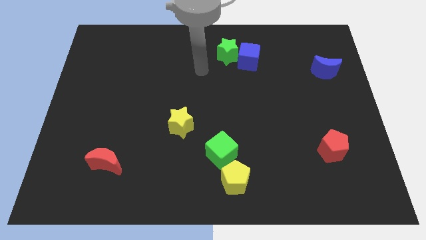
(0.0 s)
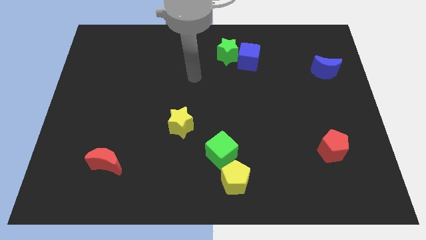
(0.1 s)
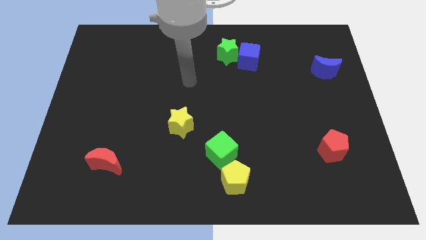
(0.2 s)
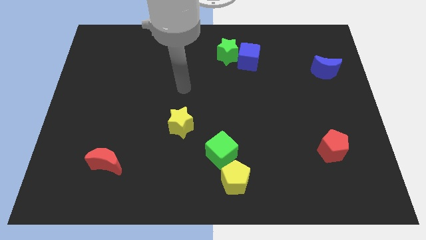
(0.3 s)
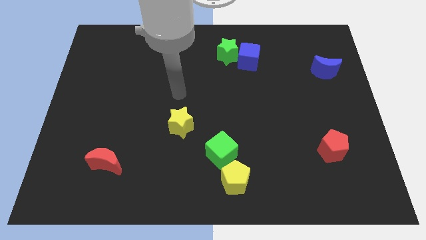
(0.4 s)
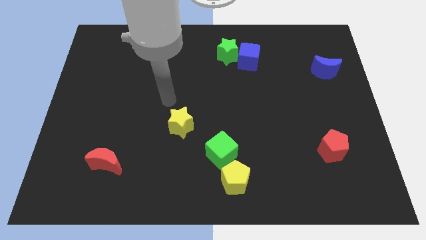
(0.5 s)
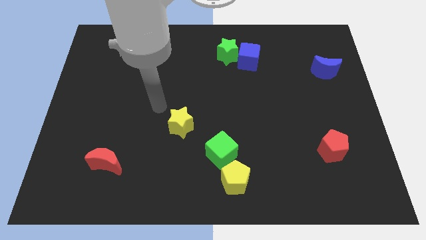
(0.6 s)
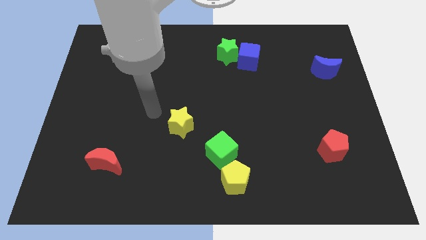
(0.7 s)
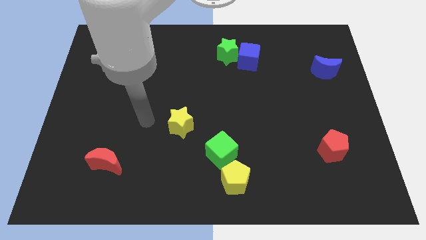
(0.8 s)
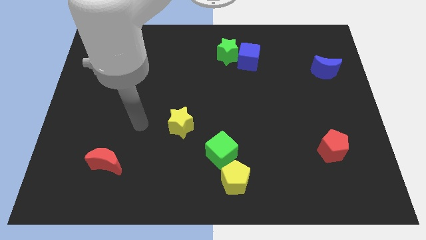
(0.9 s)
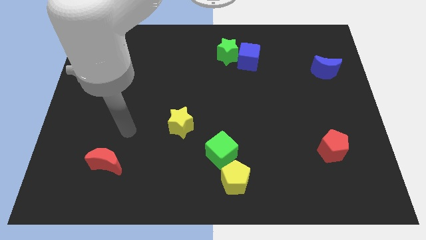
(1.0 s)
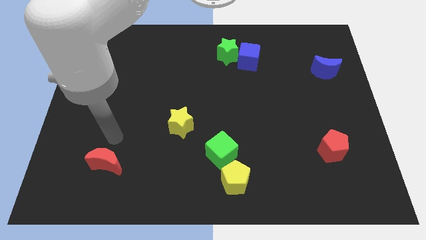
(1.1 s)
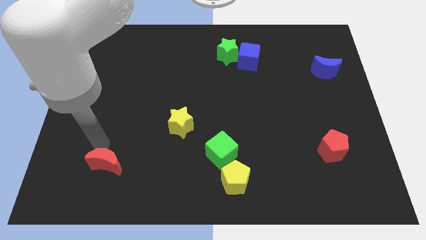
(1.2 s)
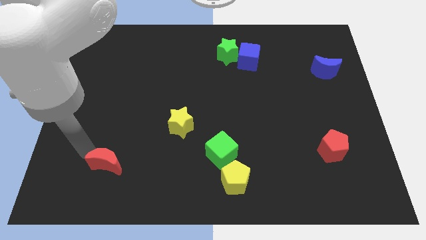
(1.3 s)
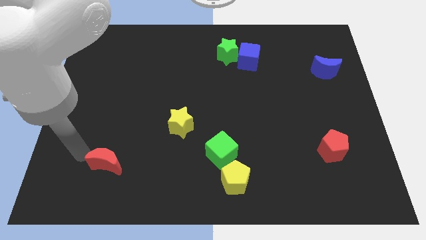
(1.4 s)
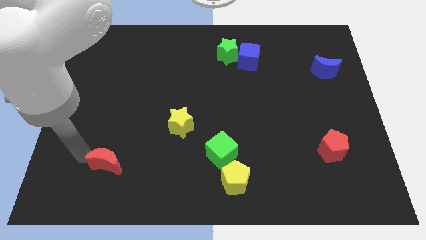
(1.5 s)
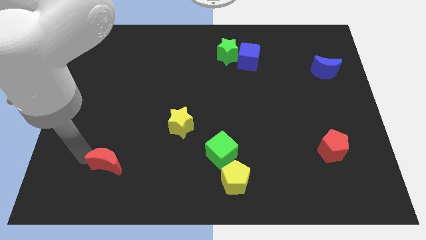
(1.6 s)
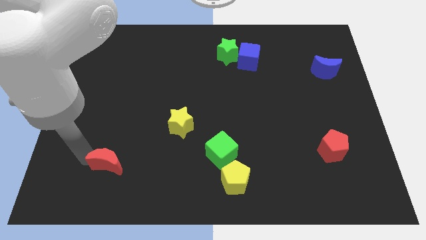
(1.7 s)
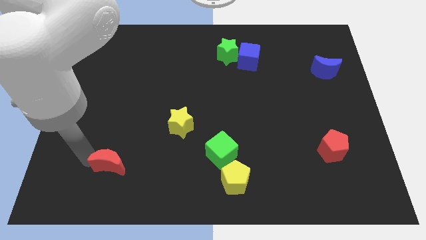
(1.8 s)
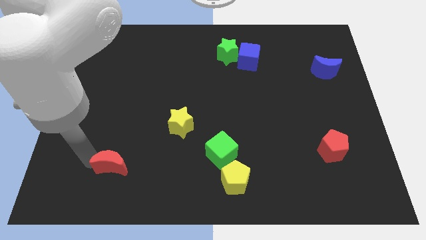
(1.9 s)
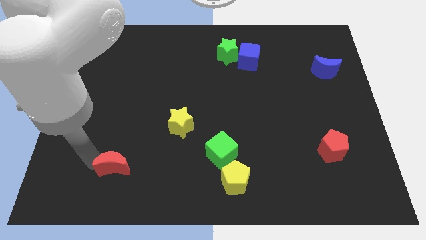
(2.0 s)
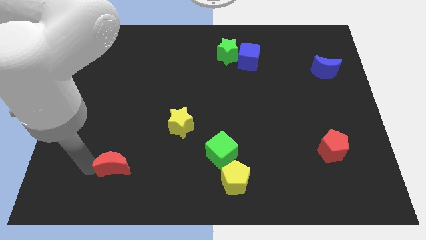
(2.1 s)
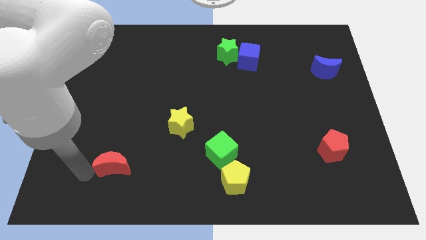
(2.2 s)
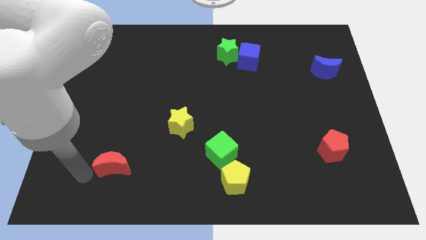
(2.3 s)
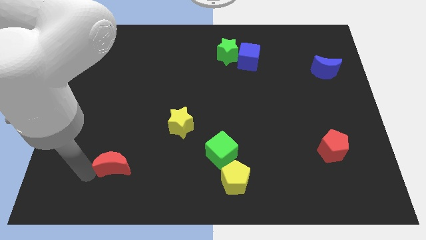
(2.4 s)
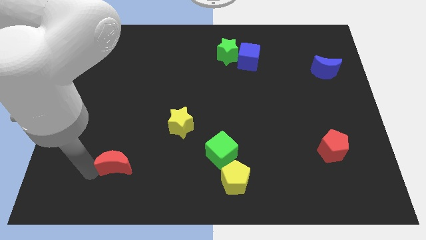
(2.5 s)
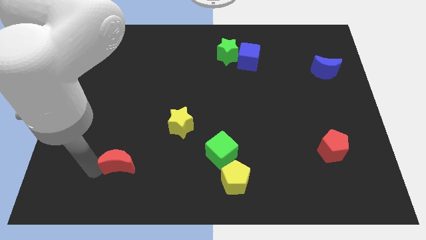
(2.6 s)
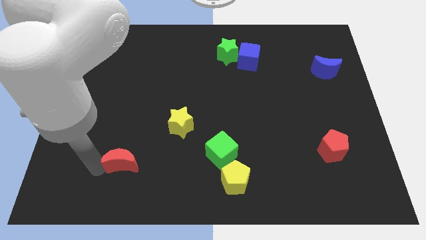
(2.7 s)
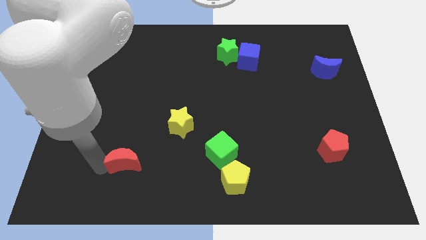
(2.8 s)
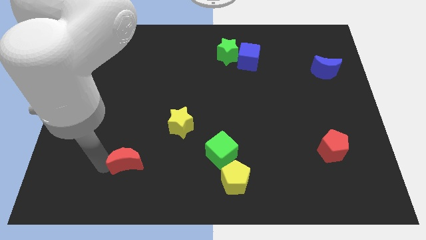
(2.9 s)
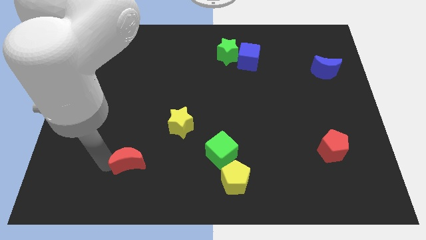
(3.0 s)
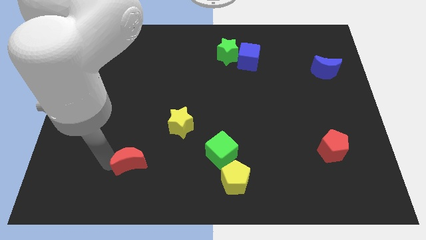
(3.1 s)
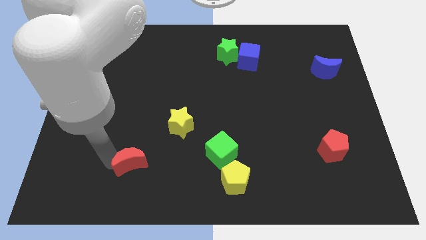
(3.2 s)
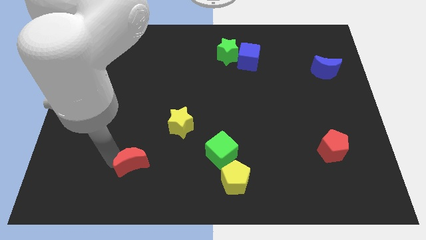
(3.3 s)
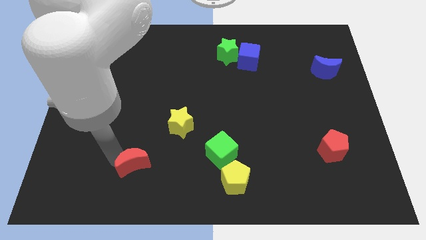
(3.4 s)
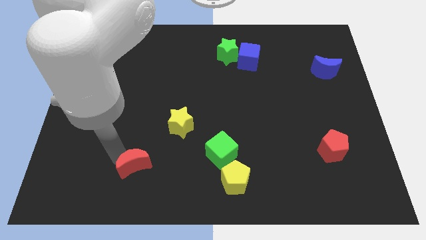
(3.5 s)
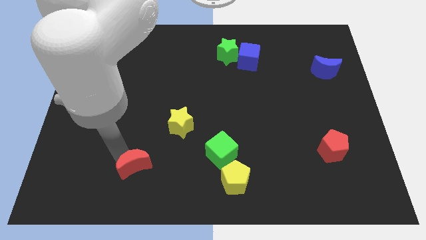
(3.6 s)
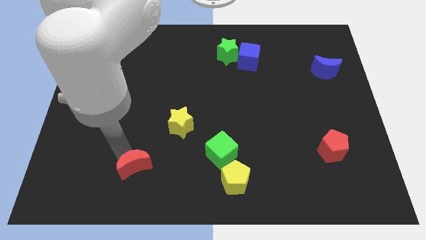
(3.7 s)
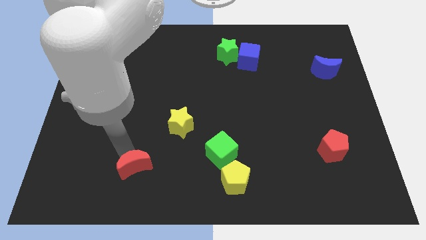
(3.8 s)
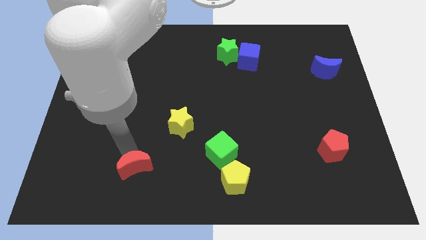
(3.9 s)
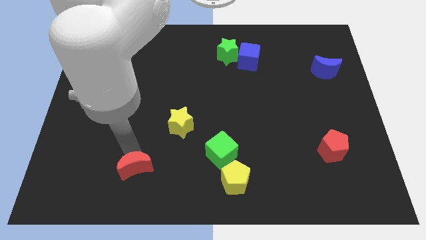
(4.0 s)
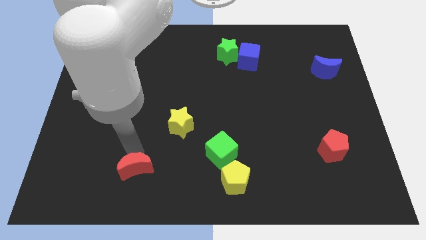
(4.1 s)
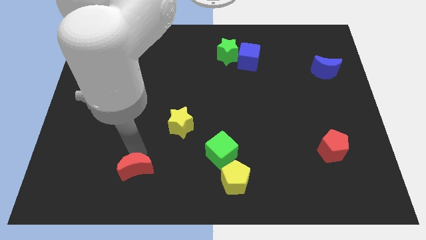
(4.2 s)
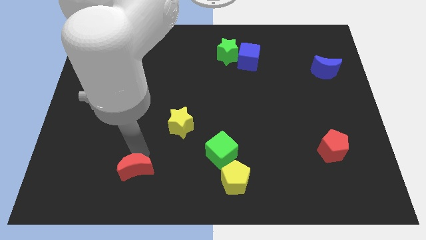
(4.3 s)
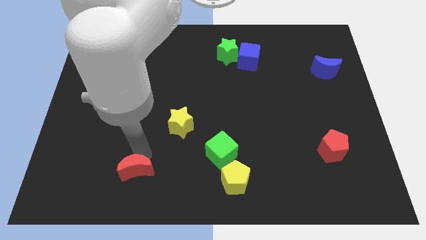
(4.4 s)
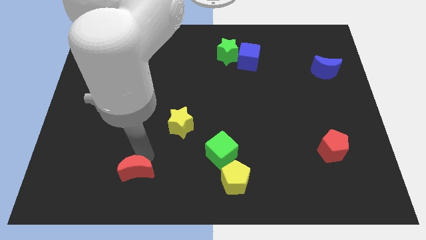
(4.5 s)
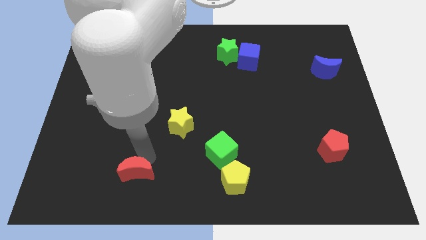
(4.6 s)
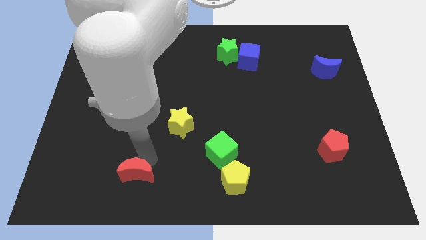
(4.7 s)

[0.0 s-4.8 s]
slide the red moon a little bit right

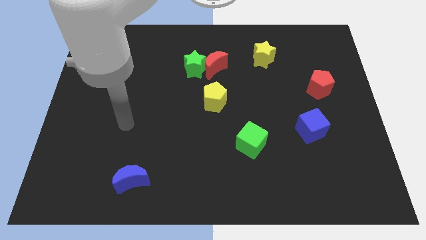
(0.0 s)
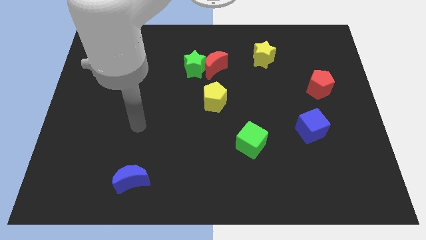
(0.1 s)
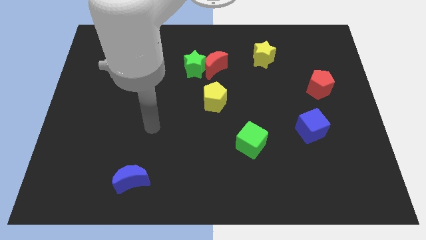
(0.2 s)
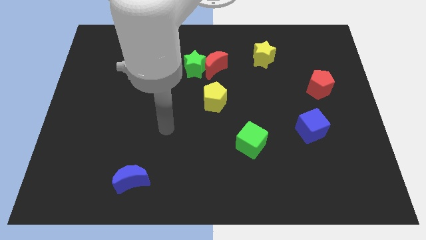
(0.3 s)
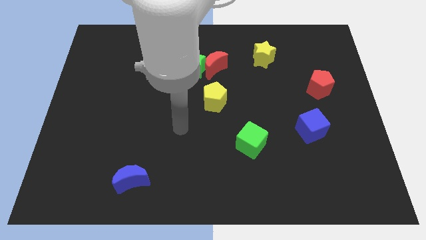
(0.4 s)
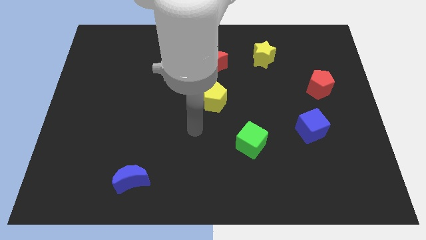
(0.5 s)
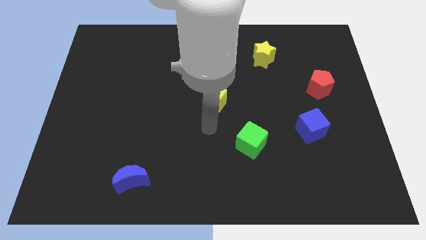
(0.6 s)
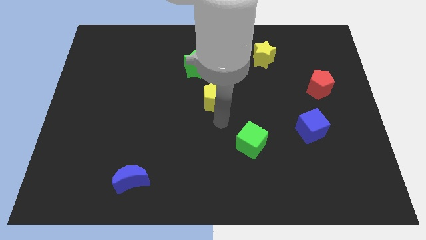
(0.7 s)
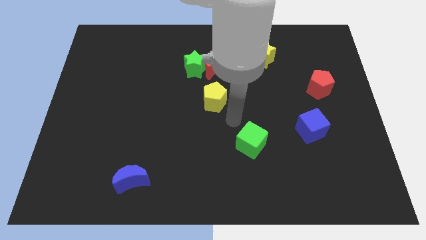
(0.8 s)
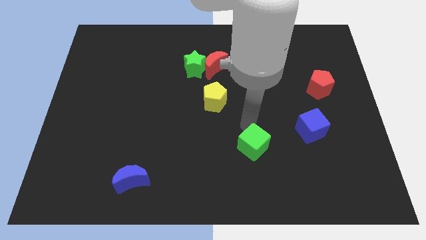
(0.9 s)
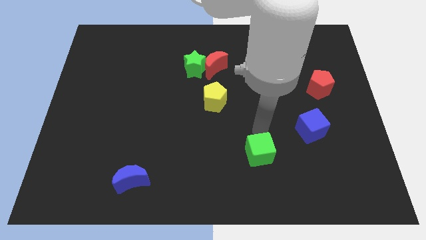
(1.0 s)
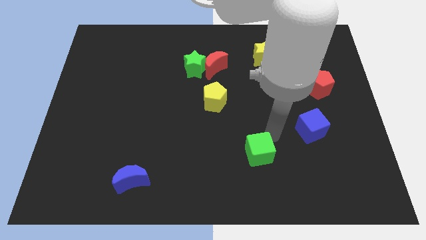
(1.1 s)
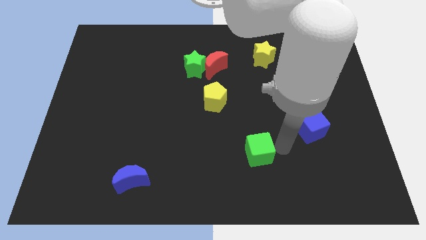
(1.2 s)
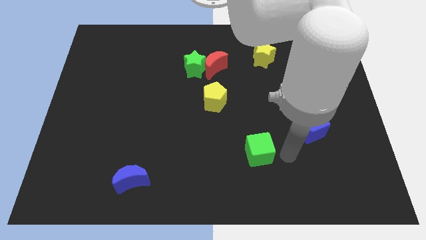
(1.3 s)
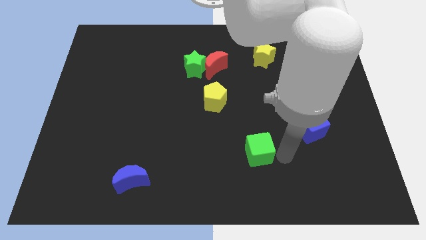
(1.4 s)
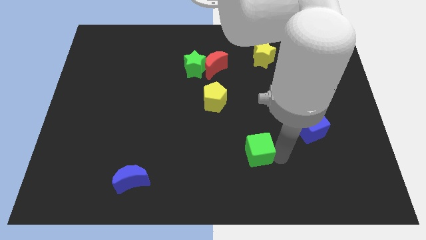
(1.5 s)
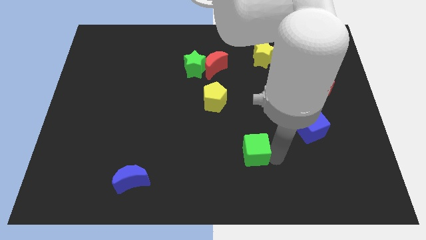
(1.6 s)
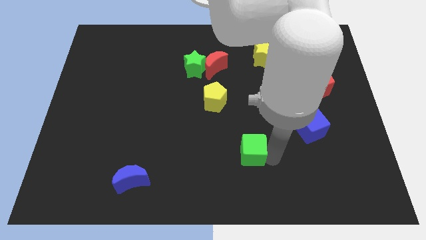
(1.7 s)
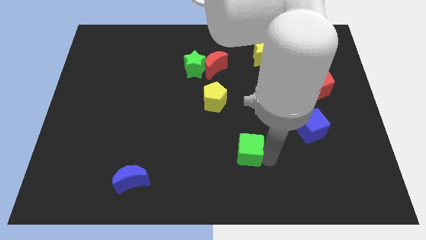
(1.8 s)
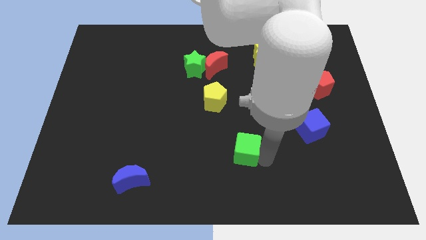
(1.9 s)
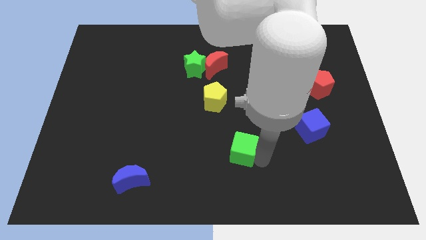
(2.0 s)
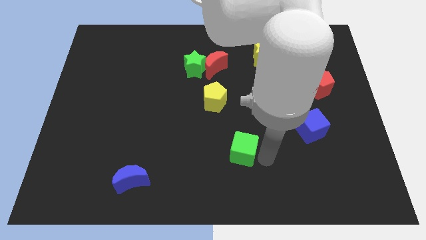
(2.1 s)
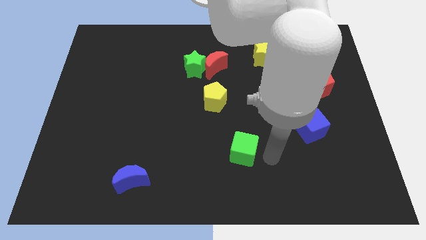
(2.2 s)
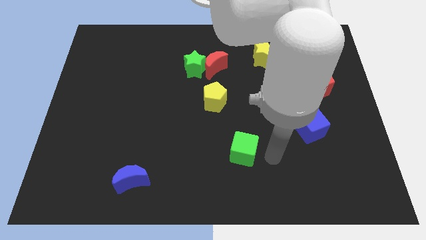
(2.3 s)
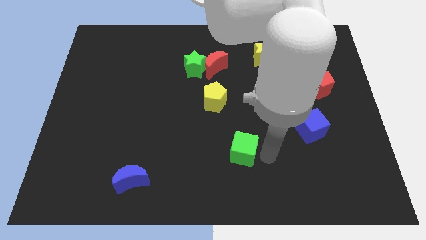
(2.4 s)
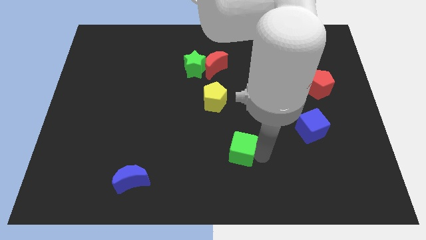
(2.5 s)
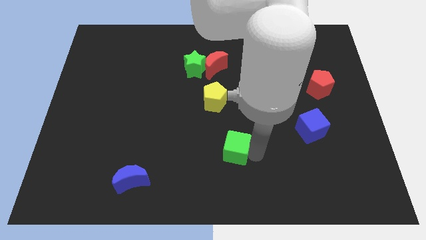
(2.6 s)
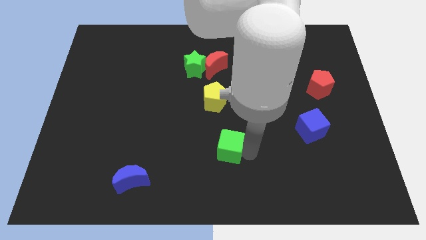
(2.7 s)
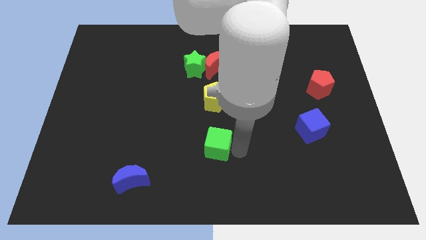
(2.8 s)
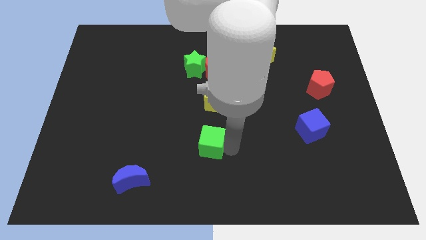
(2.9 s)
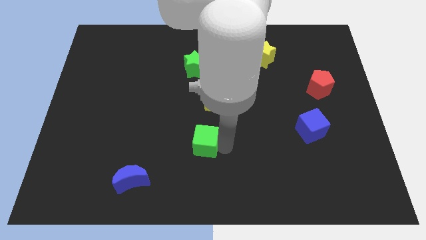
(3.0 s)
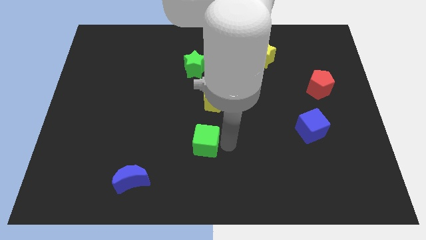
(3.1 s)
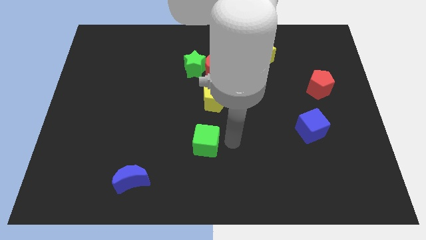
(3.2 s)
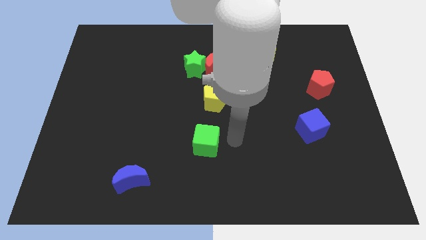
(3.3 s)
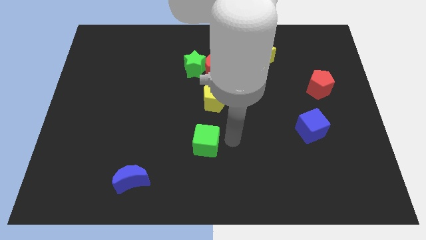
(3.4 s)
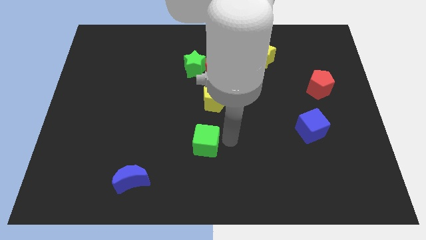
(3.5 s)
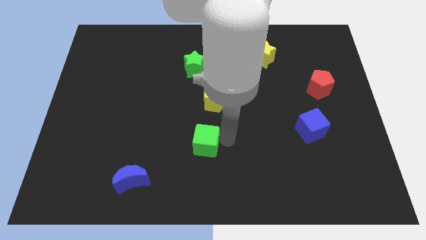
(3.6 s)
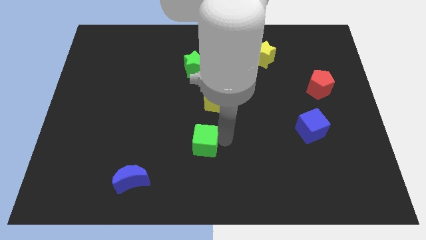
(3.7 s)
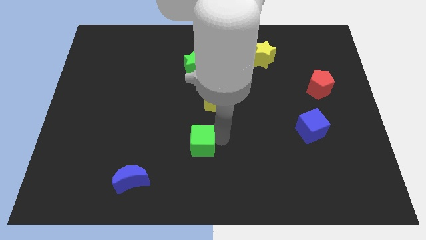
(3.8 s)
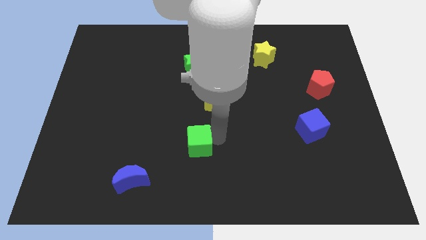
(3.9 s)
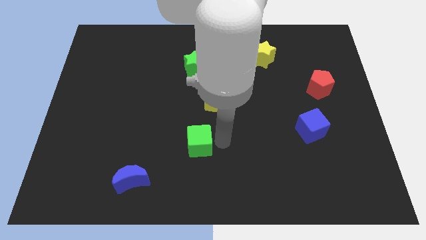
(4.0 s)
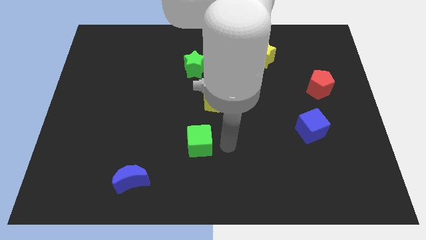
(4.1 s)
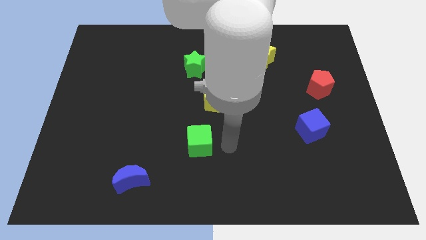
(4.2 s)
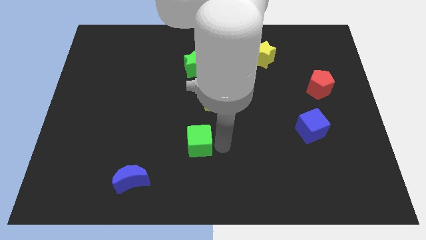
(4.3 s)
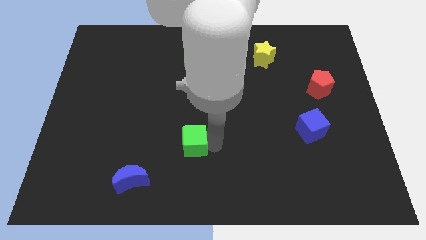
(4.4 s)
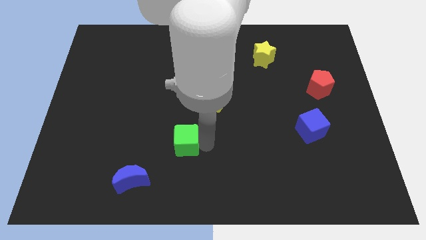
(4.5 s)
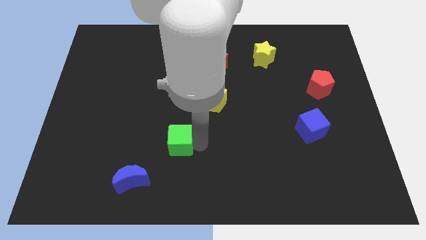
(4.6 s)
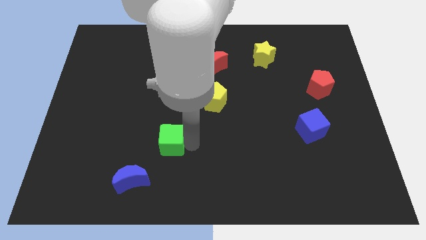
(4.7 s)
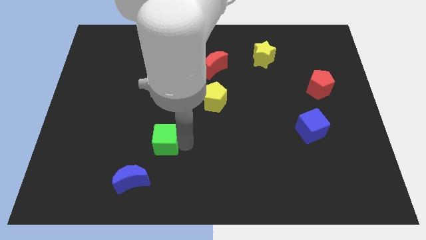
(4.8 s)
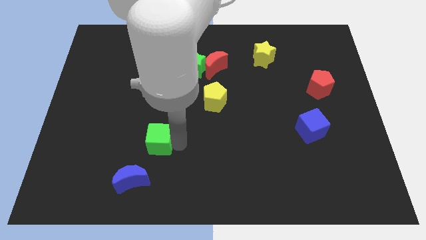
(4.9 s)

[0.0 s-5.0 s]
push the green cube left
